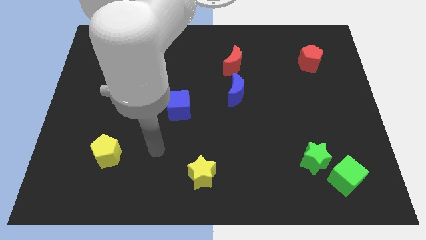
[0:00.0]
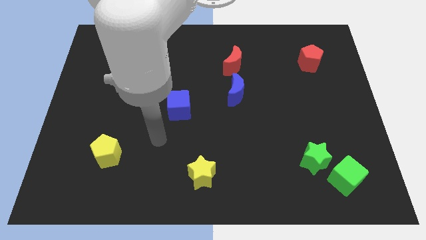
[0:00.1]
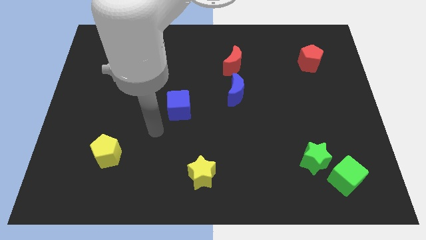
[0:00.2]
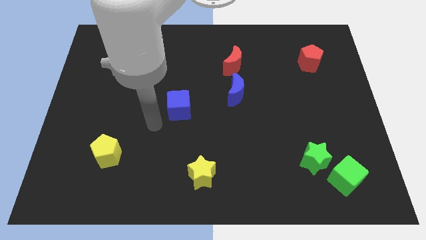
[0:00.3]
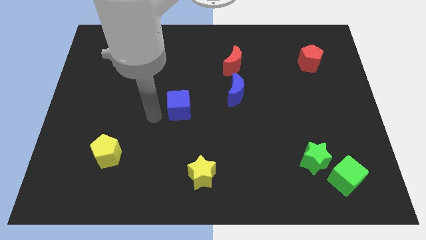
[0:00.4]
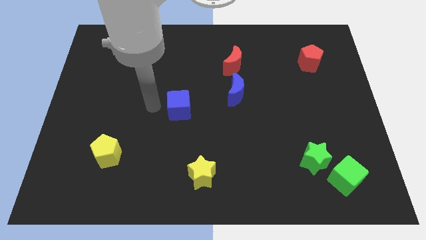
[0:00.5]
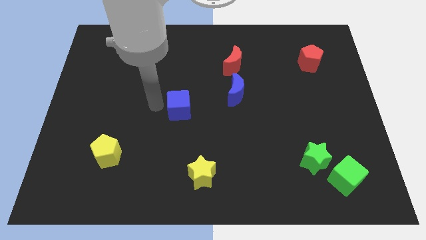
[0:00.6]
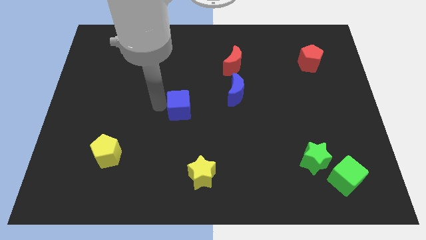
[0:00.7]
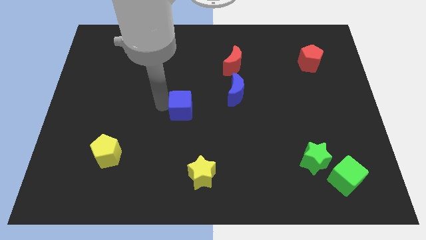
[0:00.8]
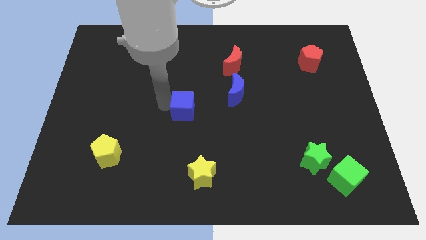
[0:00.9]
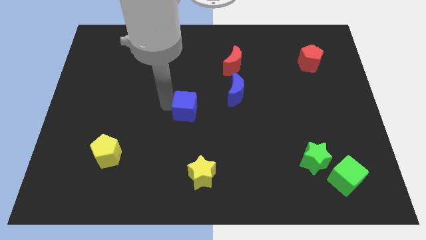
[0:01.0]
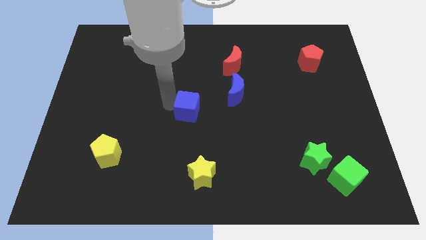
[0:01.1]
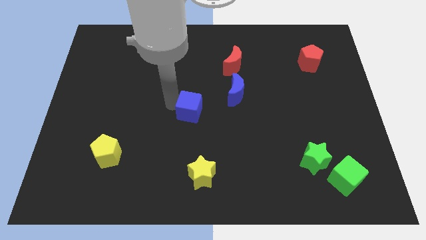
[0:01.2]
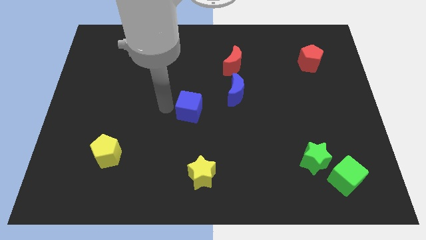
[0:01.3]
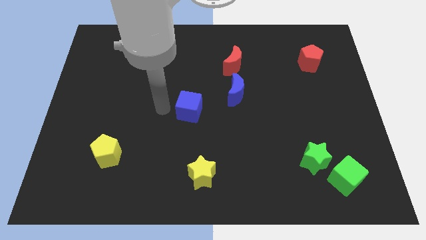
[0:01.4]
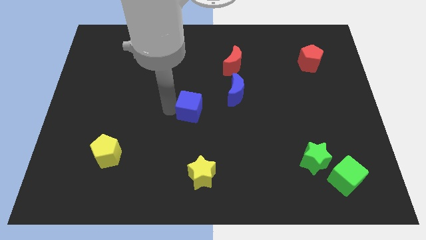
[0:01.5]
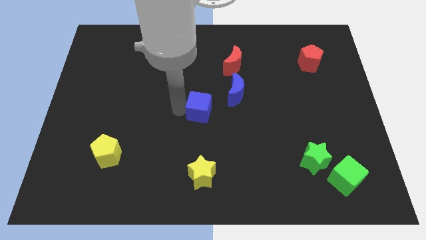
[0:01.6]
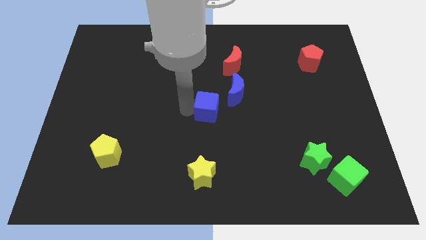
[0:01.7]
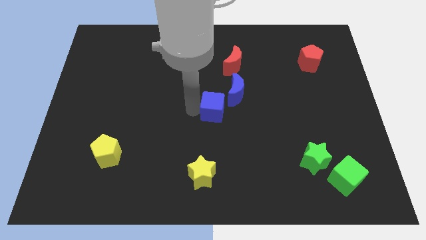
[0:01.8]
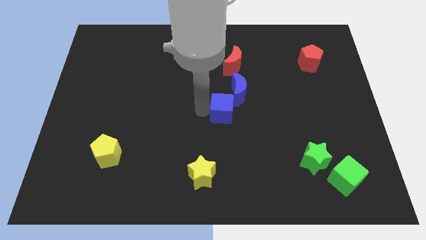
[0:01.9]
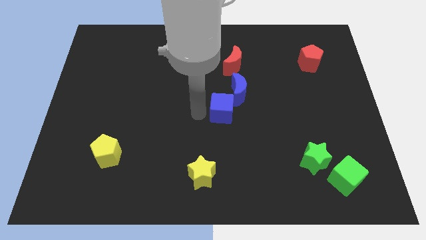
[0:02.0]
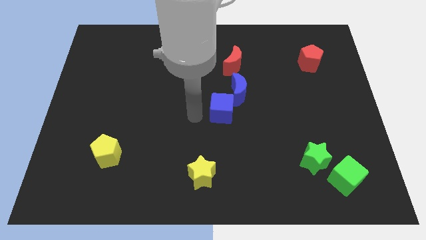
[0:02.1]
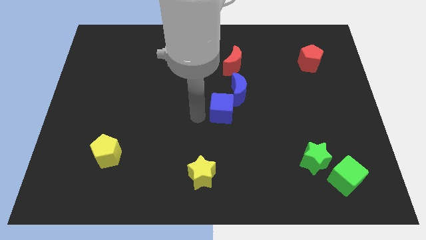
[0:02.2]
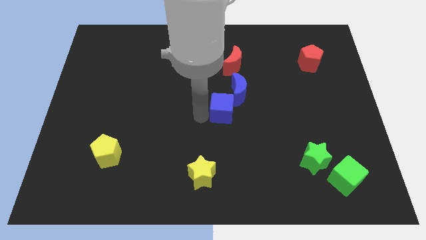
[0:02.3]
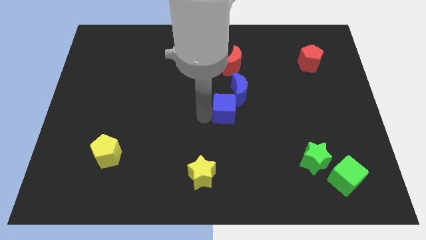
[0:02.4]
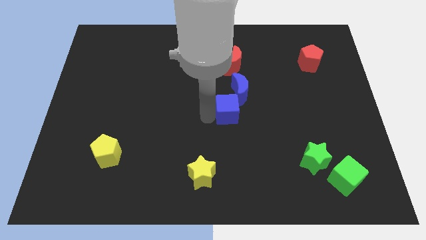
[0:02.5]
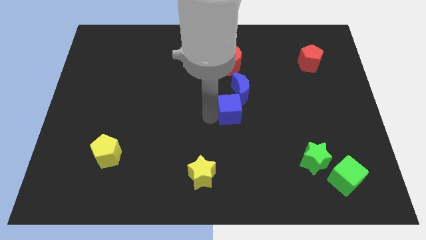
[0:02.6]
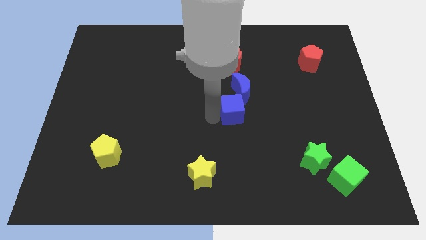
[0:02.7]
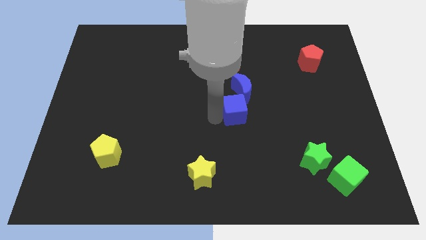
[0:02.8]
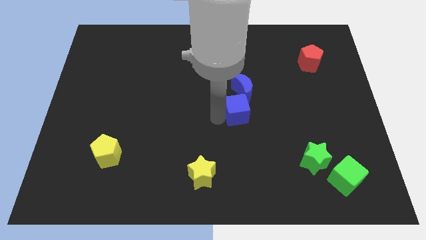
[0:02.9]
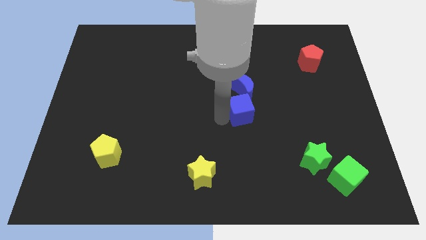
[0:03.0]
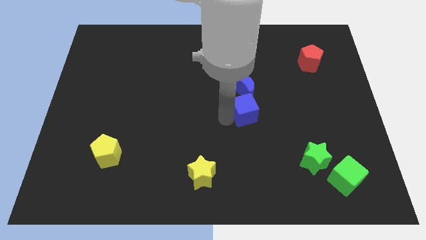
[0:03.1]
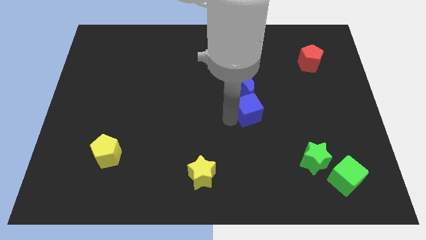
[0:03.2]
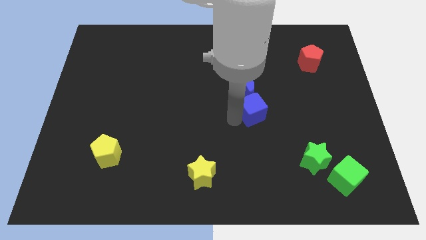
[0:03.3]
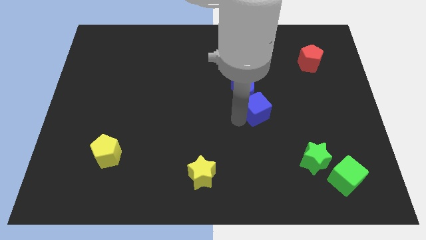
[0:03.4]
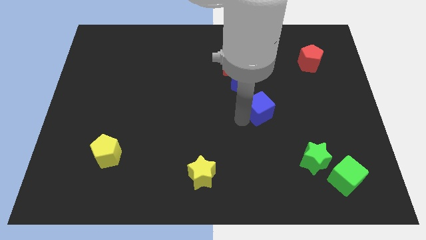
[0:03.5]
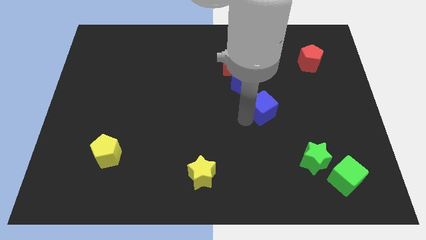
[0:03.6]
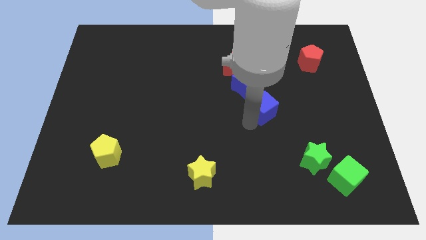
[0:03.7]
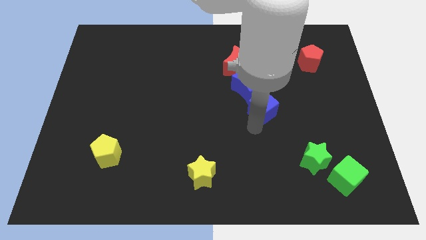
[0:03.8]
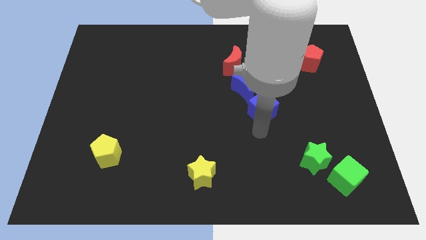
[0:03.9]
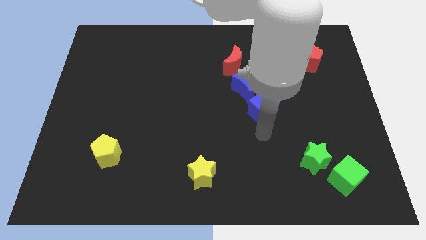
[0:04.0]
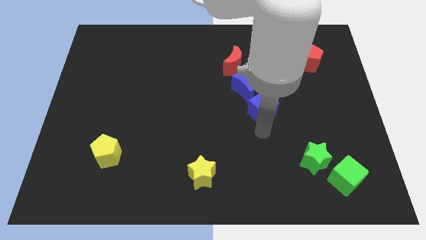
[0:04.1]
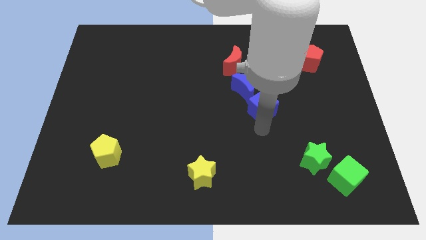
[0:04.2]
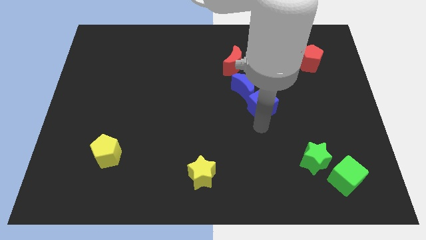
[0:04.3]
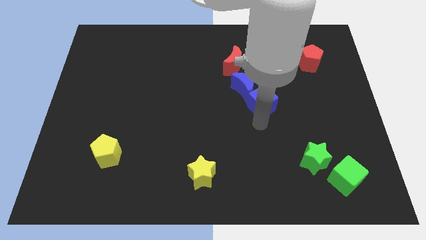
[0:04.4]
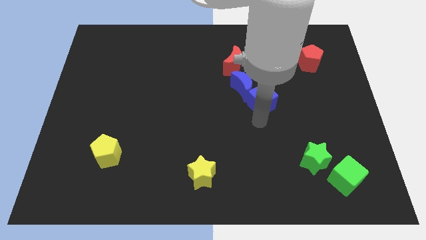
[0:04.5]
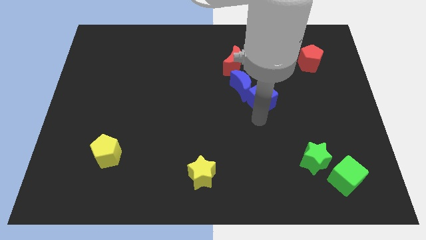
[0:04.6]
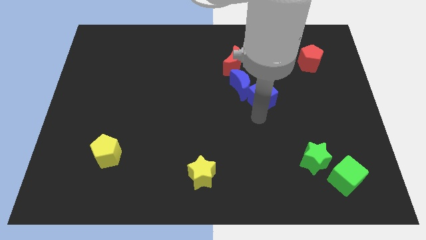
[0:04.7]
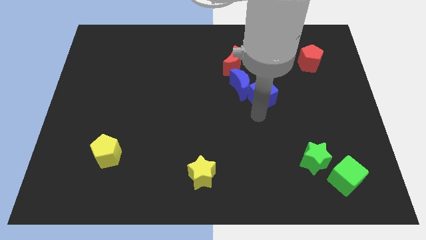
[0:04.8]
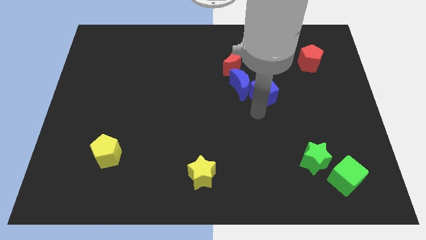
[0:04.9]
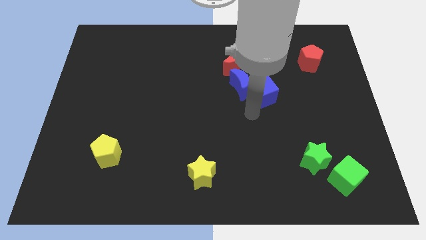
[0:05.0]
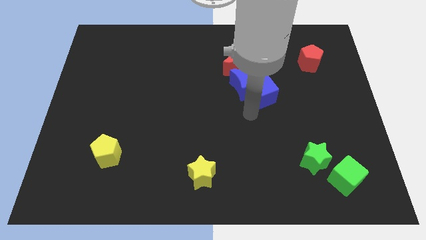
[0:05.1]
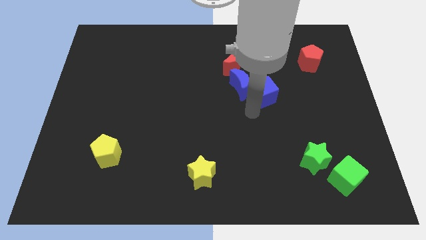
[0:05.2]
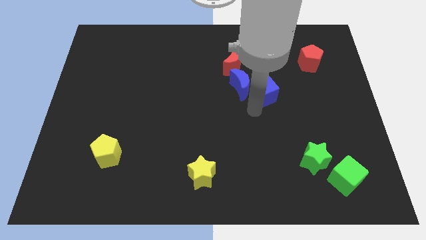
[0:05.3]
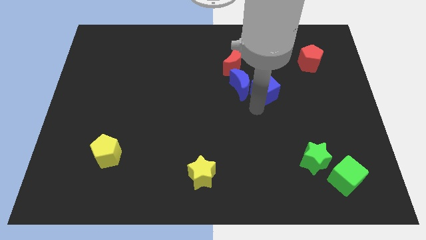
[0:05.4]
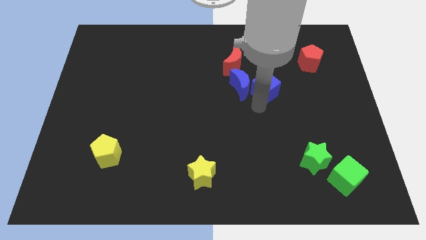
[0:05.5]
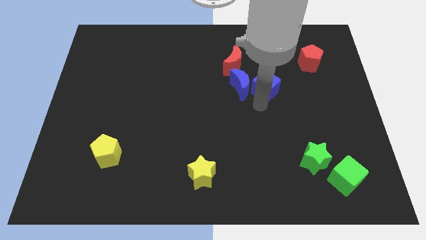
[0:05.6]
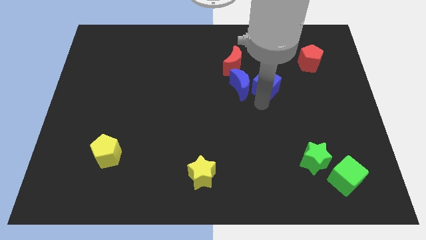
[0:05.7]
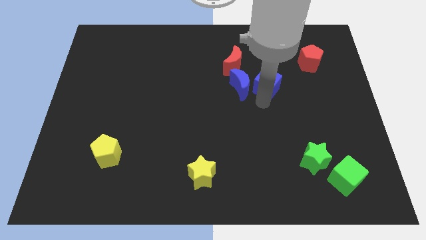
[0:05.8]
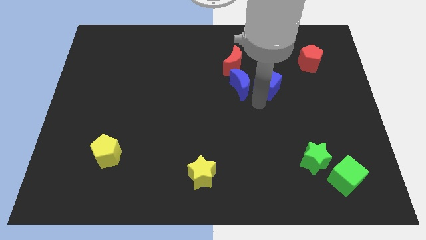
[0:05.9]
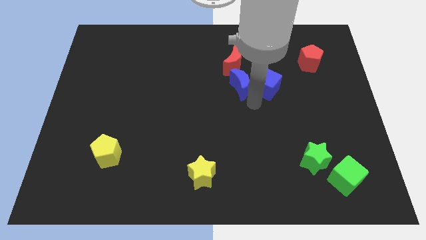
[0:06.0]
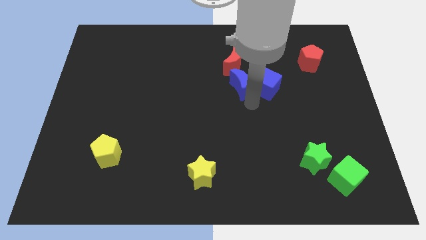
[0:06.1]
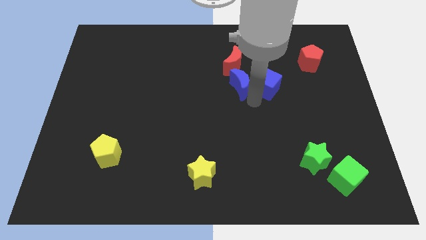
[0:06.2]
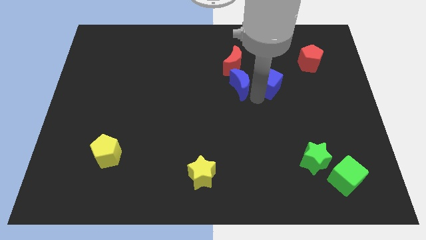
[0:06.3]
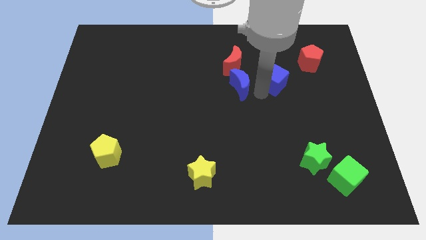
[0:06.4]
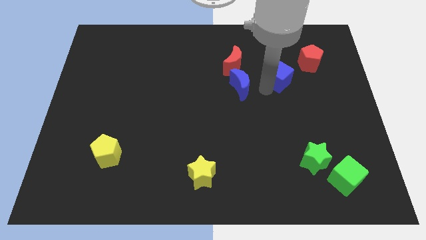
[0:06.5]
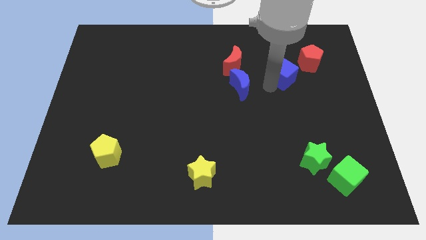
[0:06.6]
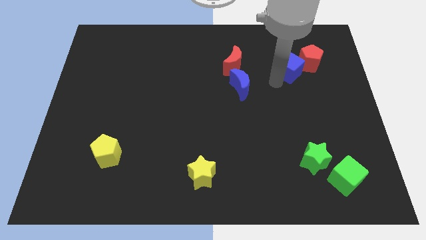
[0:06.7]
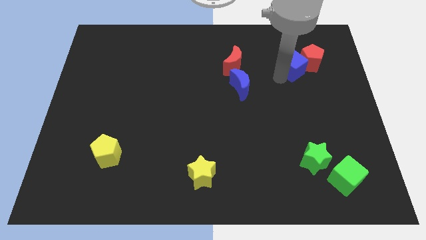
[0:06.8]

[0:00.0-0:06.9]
move the blue cube to the red pentagon
